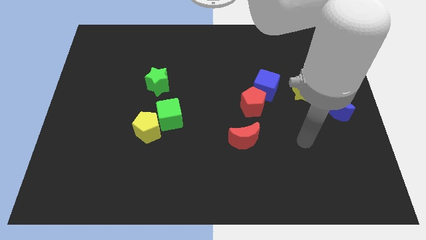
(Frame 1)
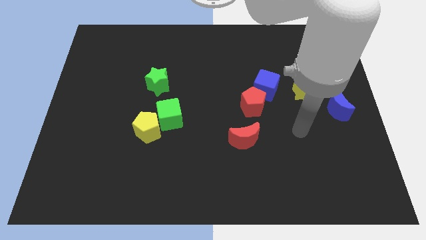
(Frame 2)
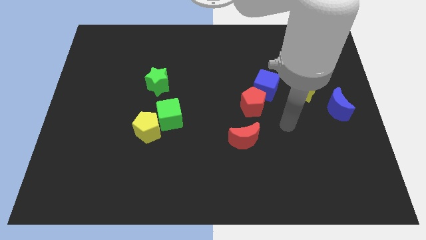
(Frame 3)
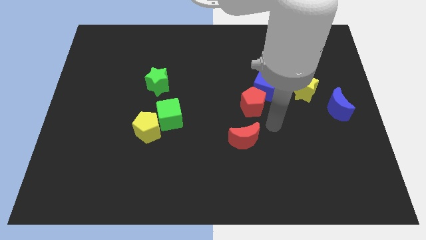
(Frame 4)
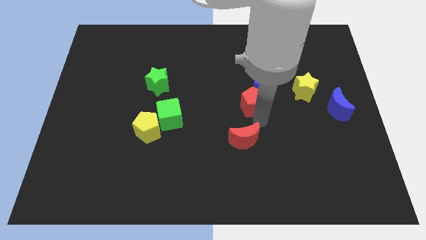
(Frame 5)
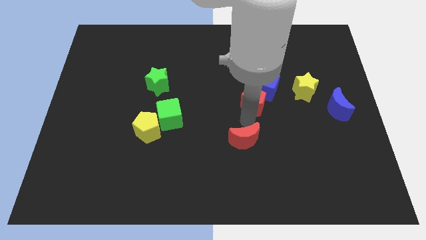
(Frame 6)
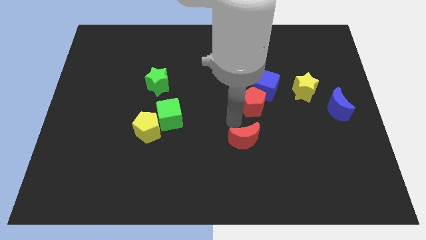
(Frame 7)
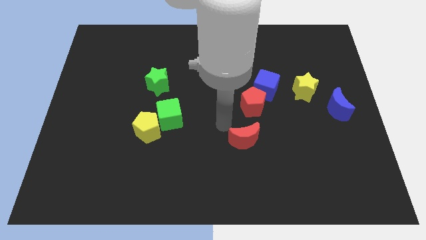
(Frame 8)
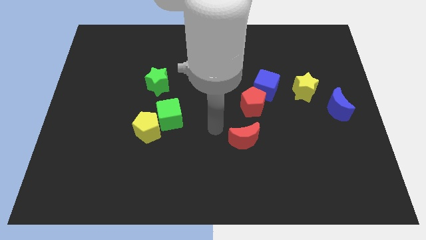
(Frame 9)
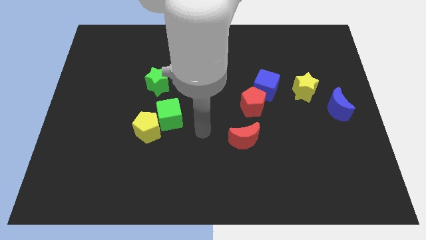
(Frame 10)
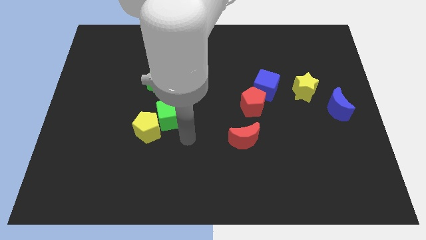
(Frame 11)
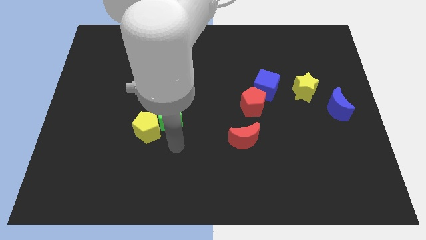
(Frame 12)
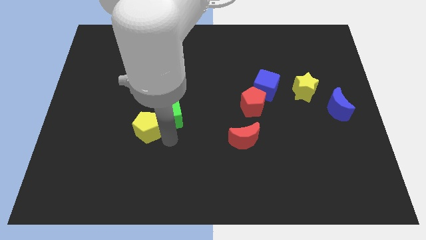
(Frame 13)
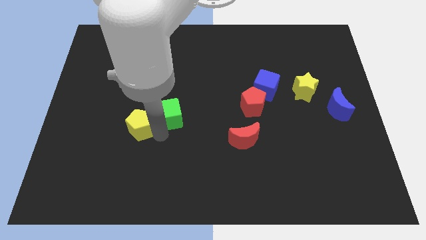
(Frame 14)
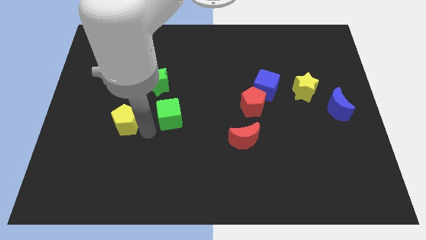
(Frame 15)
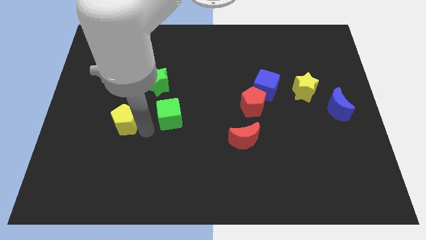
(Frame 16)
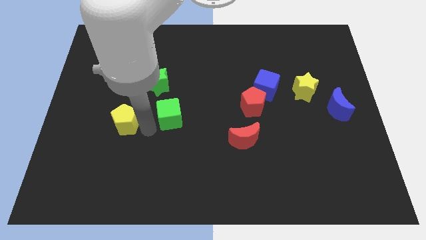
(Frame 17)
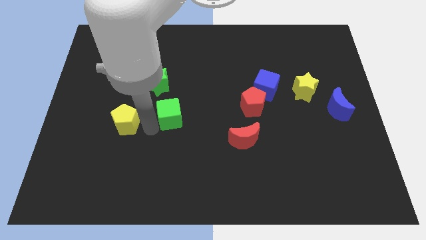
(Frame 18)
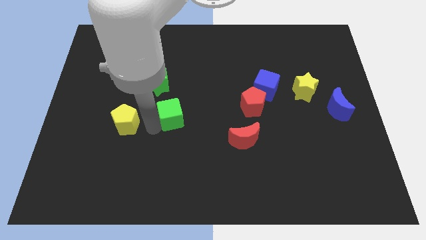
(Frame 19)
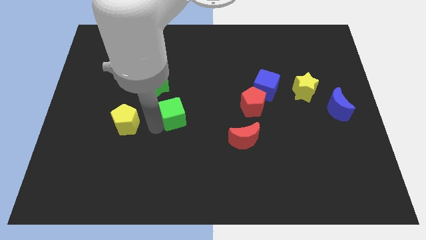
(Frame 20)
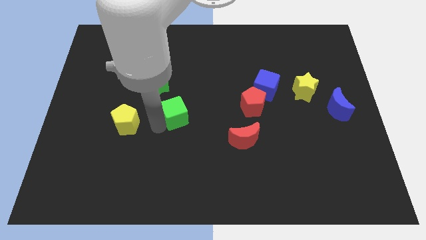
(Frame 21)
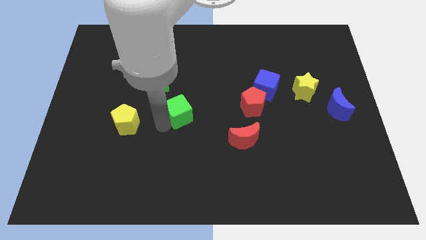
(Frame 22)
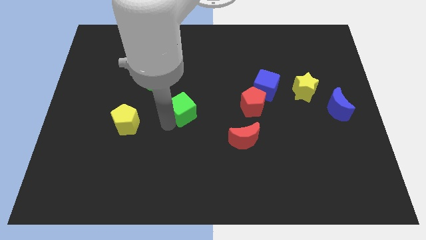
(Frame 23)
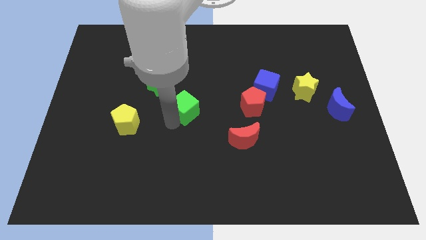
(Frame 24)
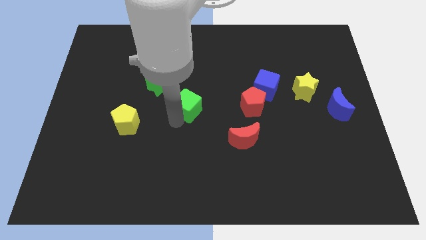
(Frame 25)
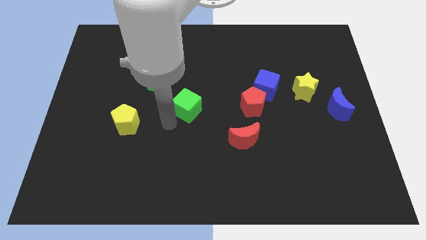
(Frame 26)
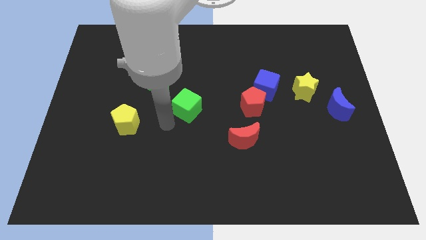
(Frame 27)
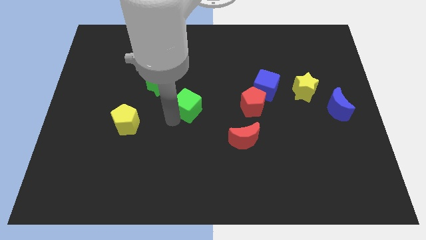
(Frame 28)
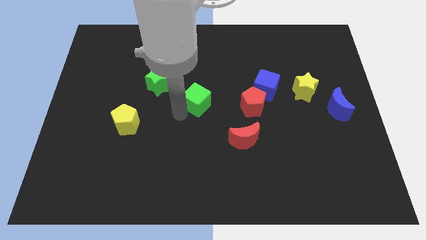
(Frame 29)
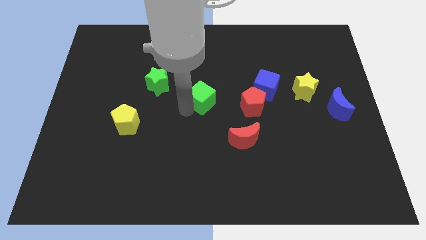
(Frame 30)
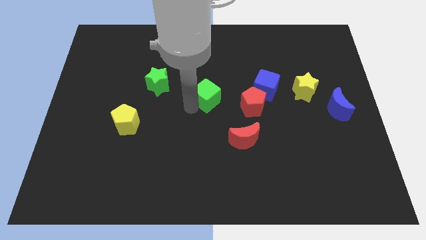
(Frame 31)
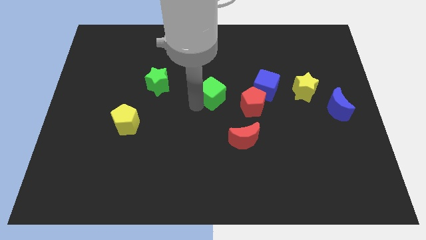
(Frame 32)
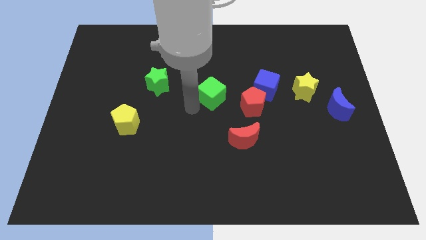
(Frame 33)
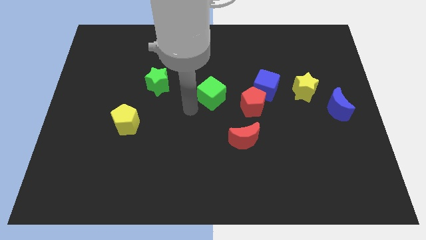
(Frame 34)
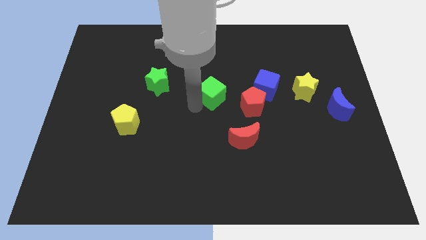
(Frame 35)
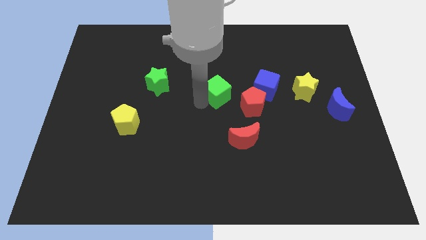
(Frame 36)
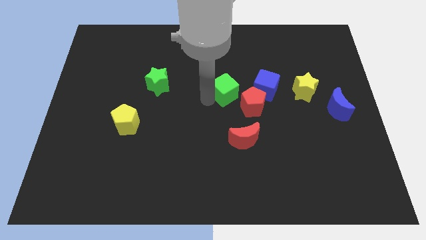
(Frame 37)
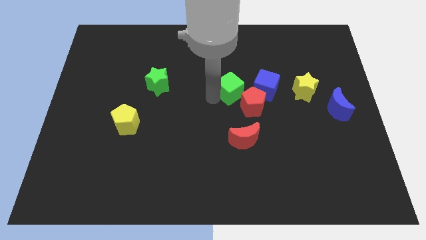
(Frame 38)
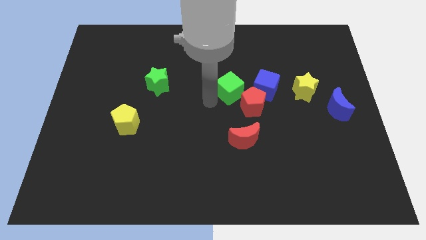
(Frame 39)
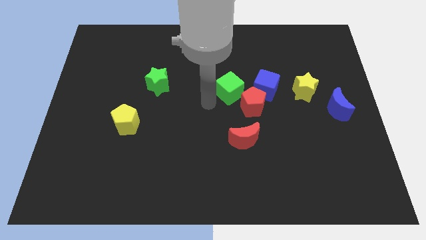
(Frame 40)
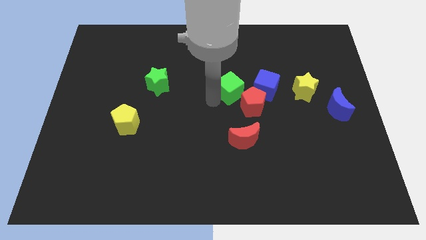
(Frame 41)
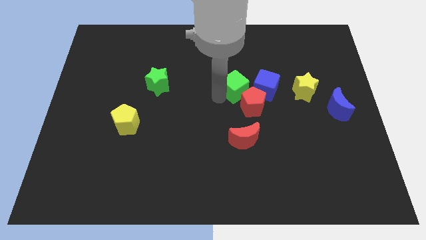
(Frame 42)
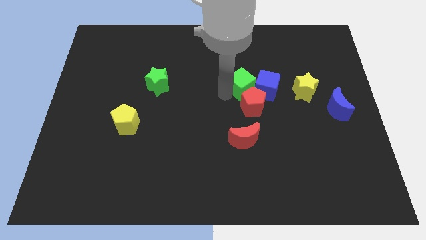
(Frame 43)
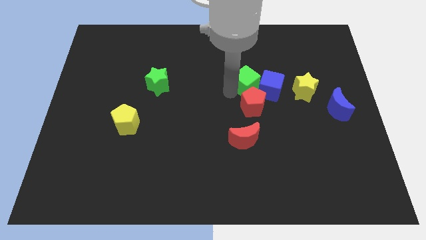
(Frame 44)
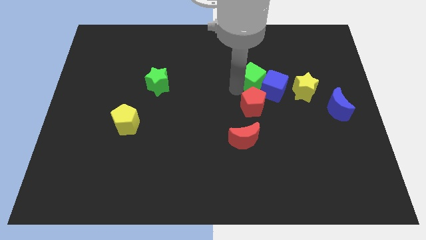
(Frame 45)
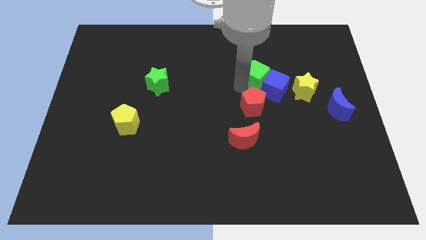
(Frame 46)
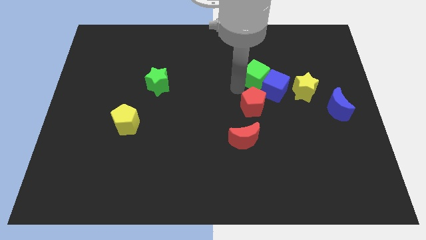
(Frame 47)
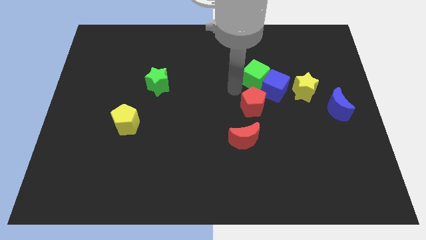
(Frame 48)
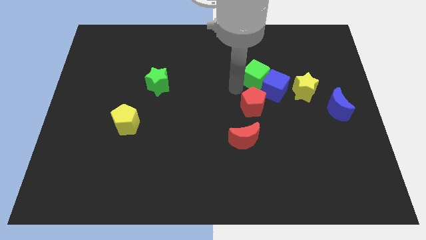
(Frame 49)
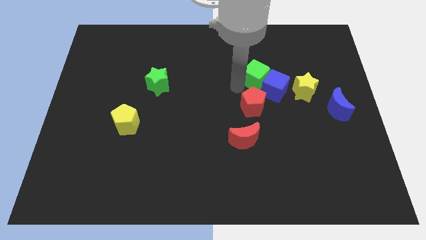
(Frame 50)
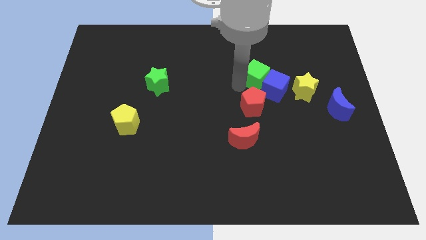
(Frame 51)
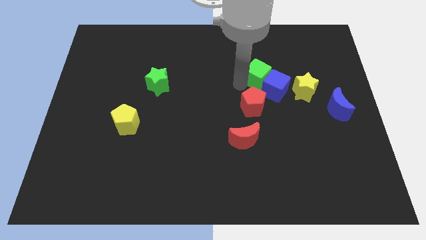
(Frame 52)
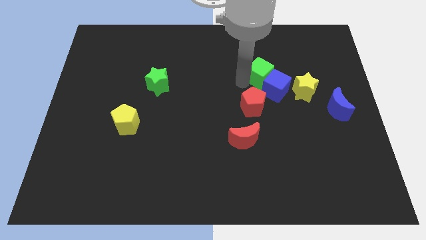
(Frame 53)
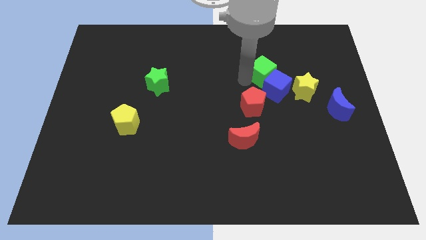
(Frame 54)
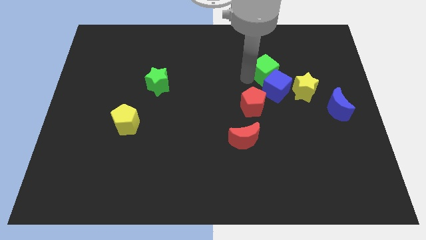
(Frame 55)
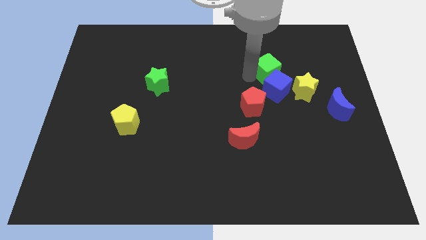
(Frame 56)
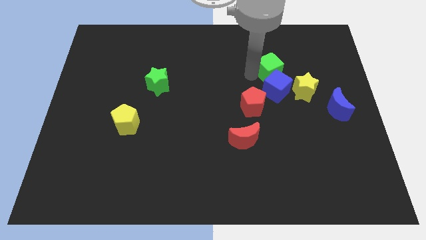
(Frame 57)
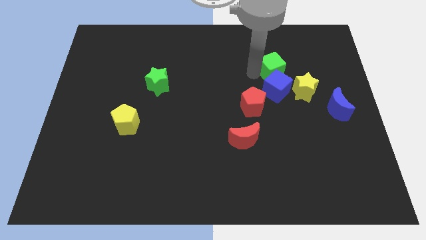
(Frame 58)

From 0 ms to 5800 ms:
put the green cube to the top right side of the blue cube
